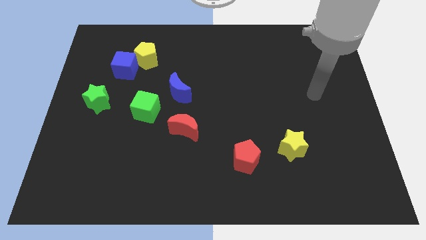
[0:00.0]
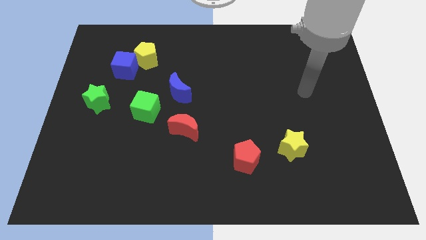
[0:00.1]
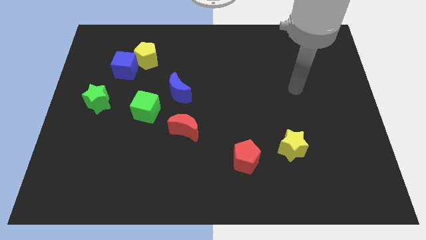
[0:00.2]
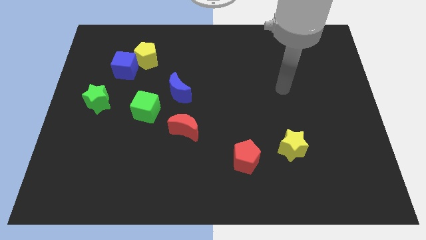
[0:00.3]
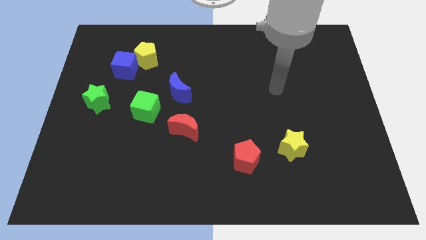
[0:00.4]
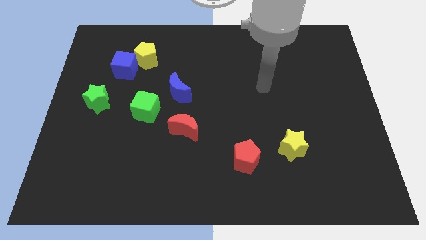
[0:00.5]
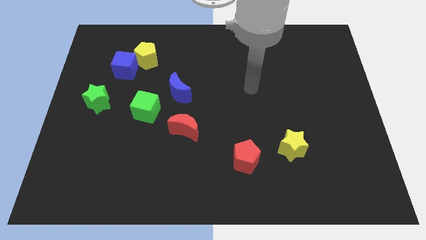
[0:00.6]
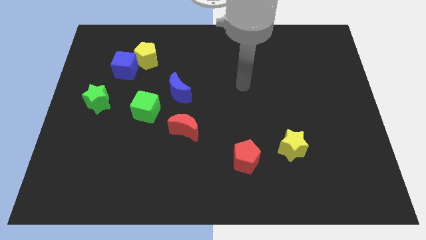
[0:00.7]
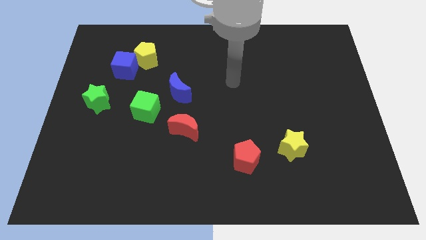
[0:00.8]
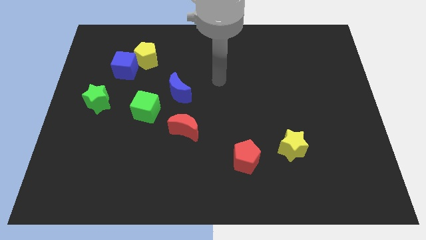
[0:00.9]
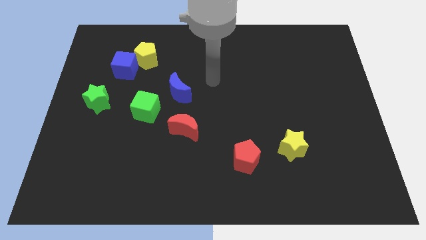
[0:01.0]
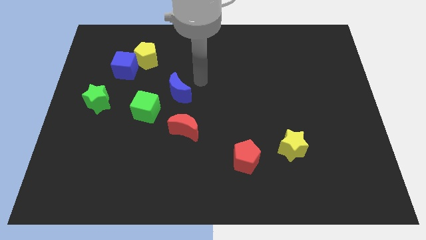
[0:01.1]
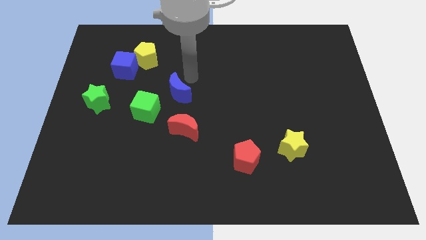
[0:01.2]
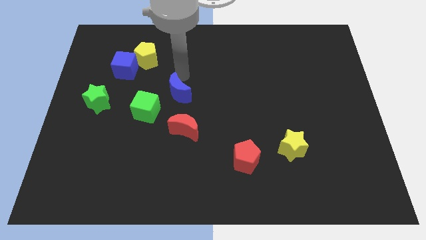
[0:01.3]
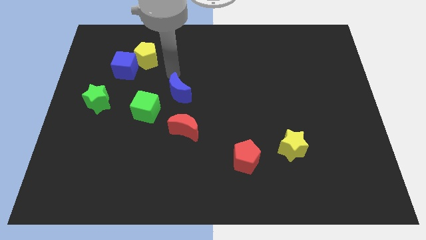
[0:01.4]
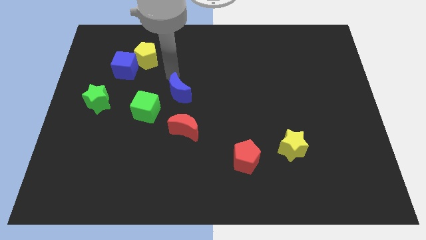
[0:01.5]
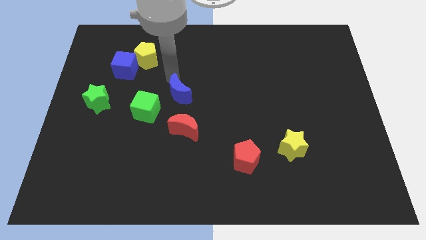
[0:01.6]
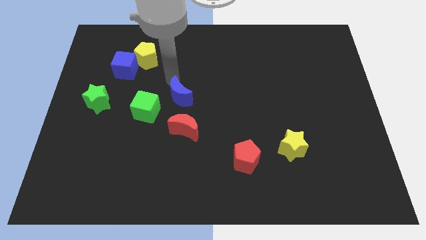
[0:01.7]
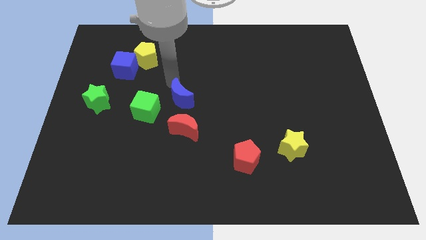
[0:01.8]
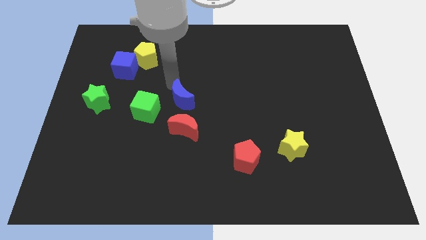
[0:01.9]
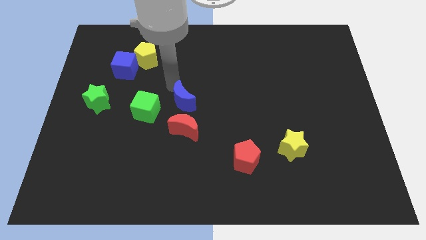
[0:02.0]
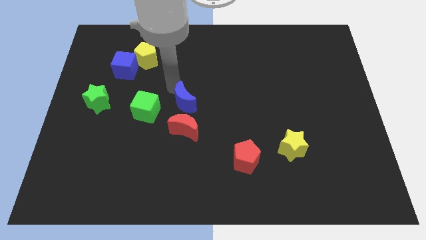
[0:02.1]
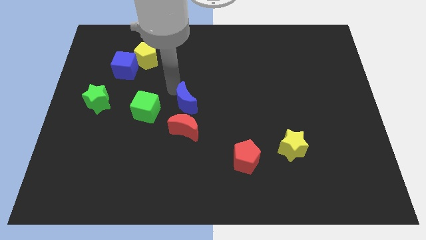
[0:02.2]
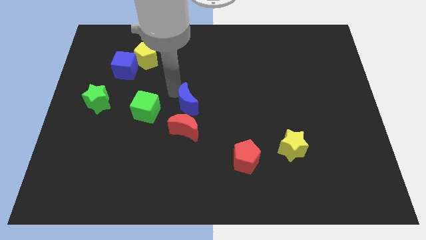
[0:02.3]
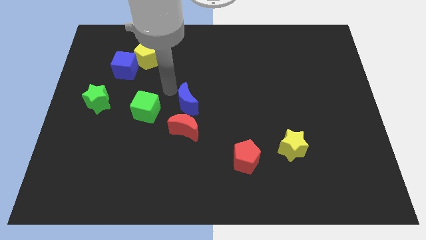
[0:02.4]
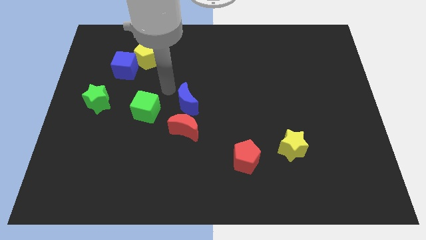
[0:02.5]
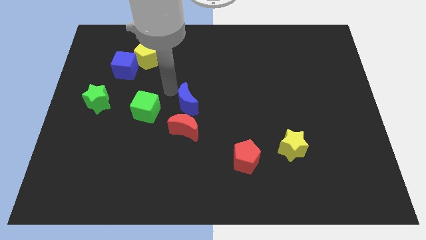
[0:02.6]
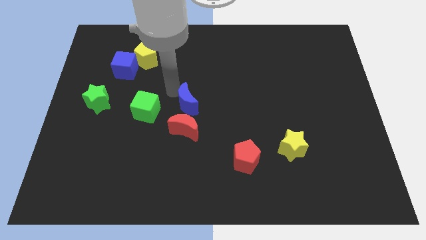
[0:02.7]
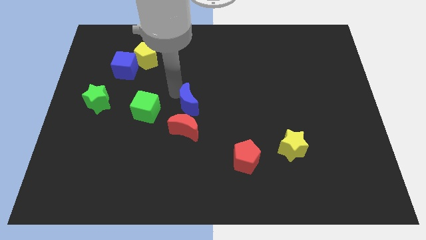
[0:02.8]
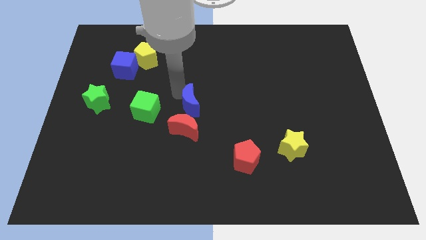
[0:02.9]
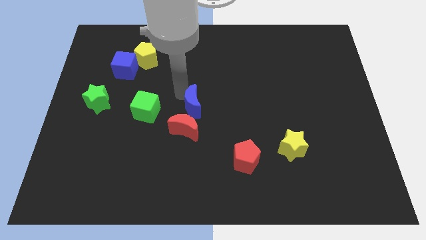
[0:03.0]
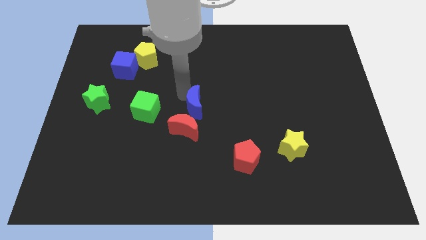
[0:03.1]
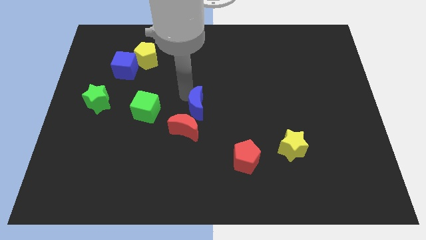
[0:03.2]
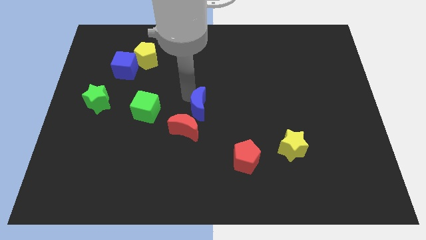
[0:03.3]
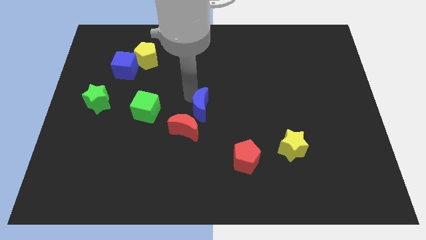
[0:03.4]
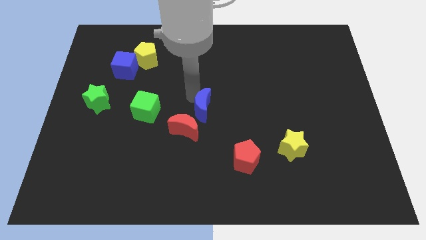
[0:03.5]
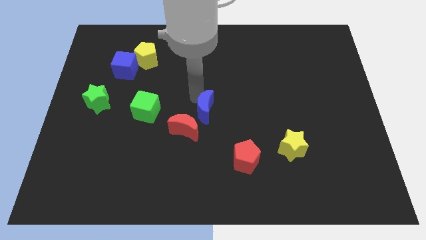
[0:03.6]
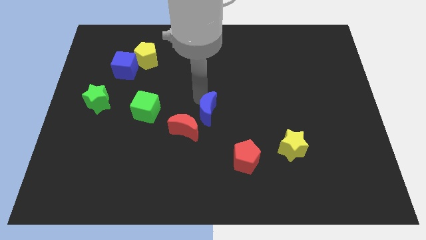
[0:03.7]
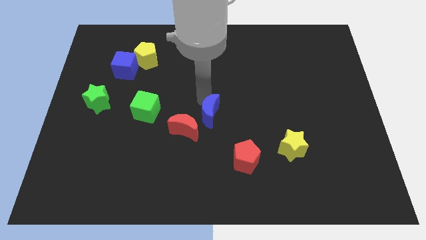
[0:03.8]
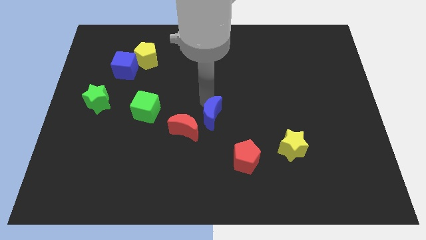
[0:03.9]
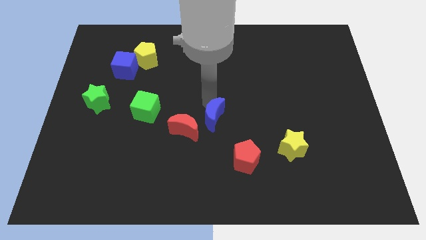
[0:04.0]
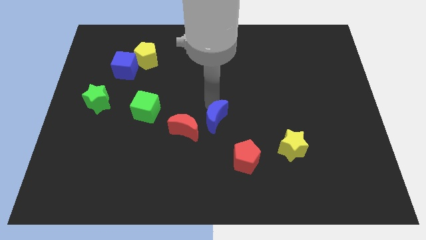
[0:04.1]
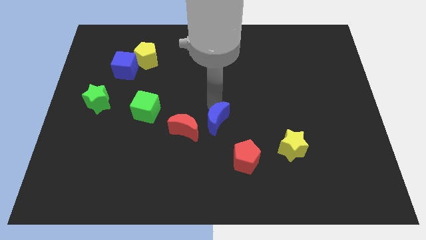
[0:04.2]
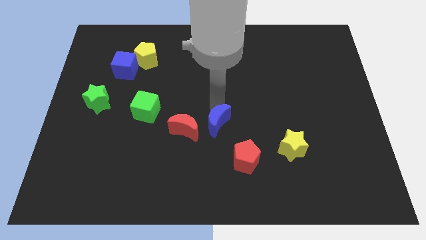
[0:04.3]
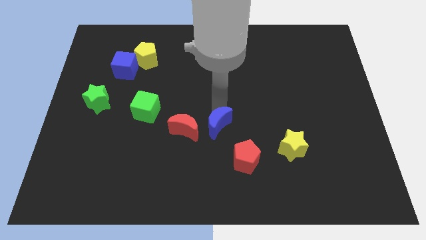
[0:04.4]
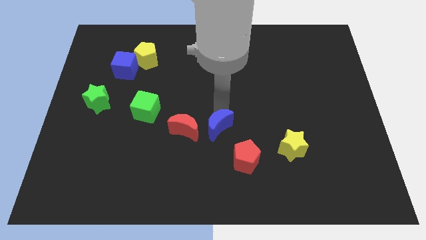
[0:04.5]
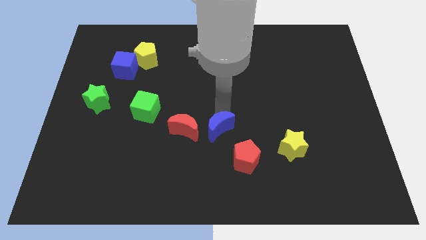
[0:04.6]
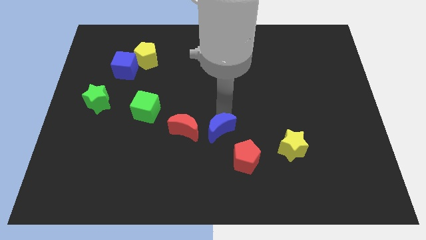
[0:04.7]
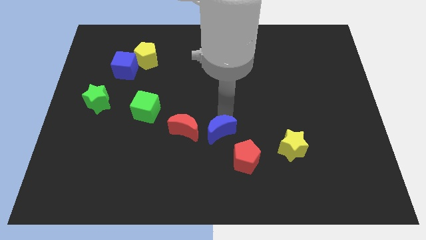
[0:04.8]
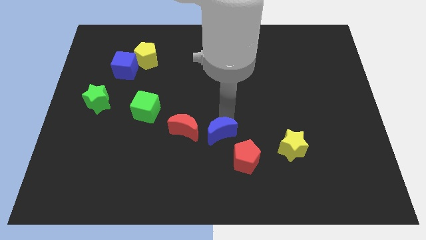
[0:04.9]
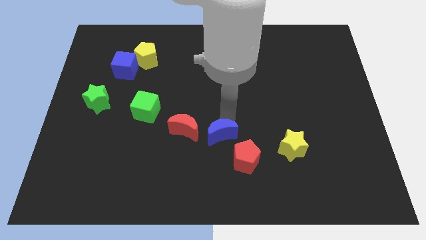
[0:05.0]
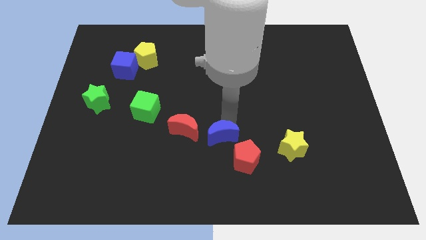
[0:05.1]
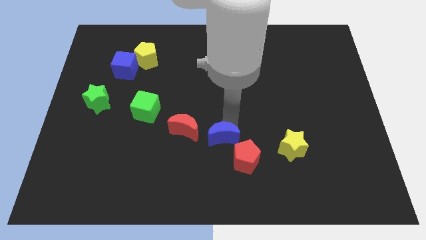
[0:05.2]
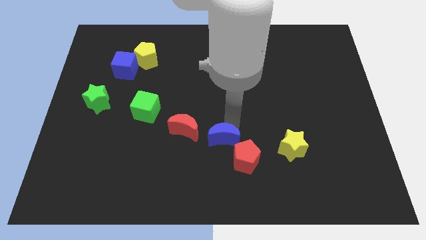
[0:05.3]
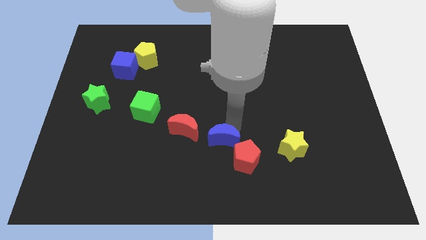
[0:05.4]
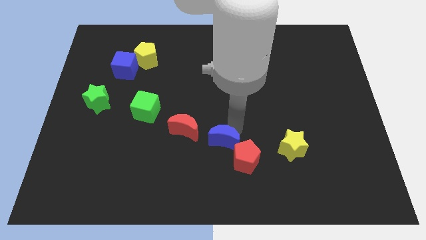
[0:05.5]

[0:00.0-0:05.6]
slide the blue moon to the left side of the red pentagon

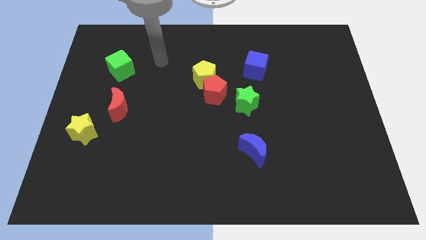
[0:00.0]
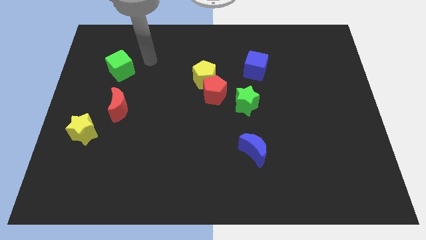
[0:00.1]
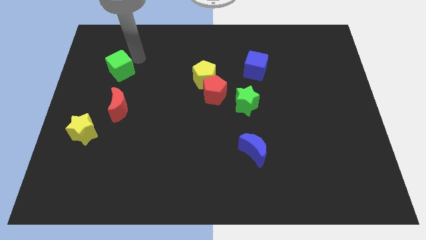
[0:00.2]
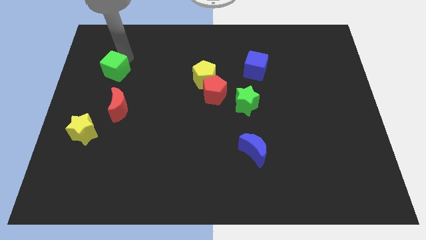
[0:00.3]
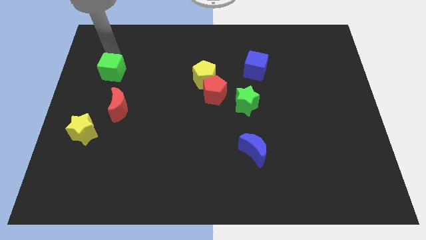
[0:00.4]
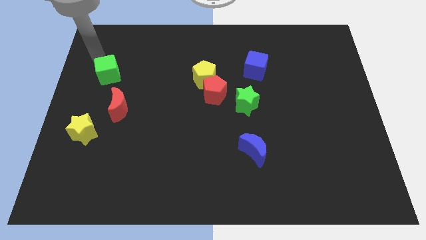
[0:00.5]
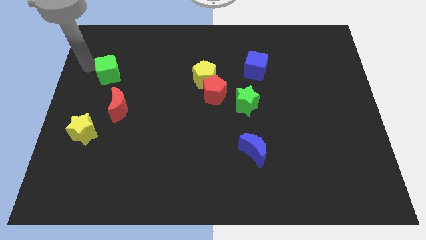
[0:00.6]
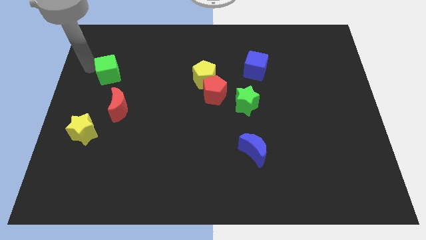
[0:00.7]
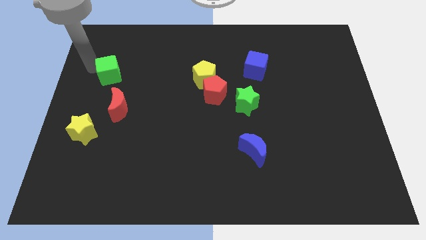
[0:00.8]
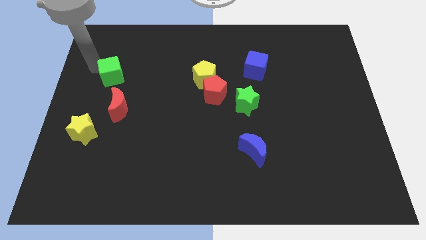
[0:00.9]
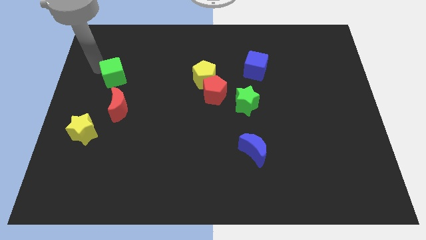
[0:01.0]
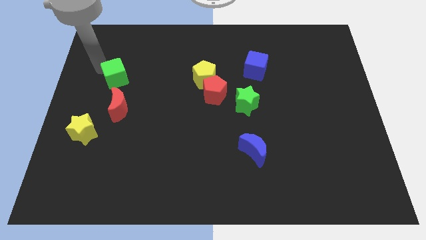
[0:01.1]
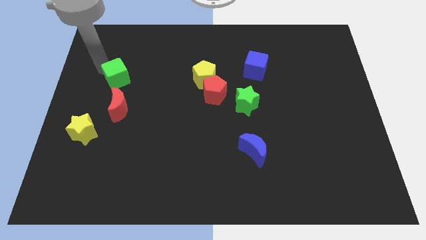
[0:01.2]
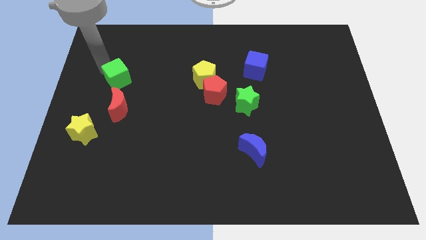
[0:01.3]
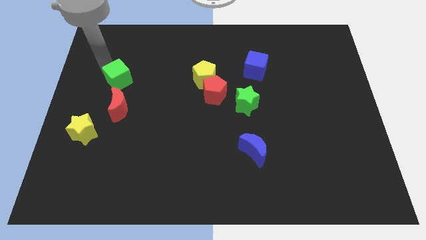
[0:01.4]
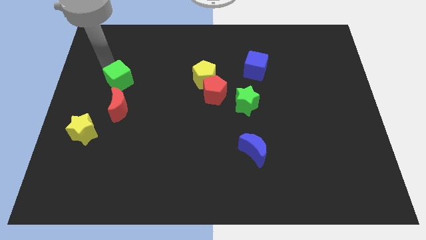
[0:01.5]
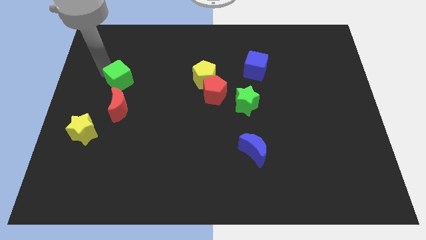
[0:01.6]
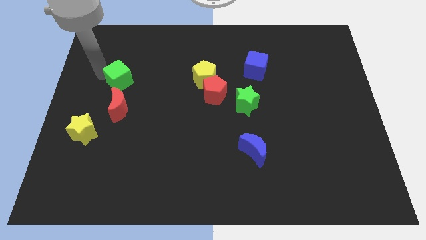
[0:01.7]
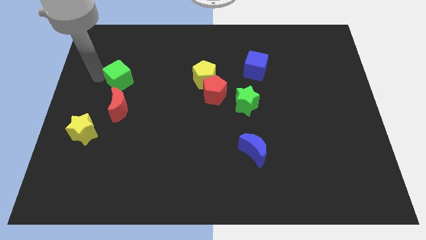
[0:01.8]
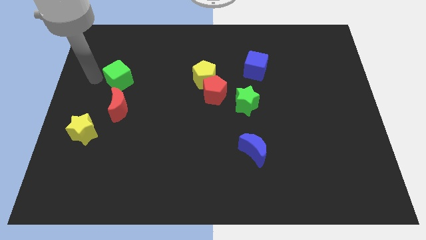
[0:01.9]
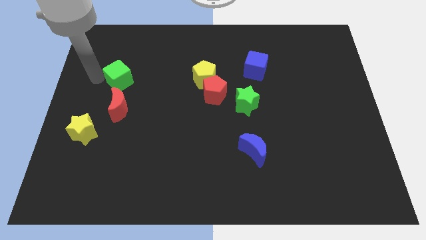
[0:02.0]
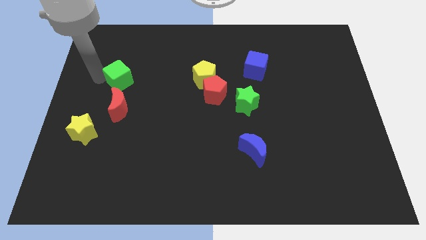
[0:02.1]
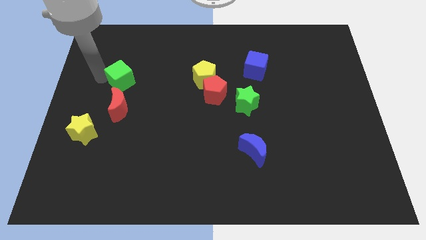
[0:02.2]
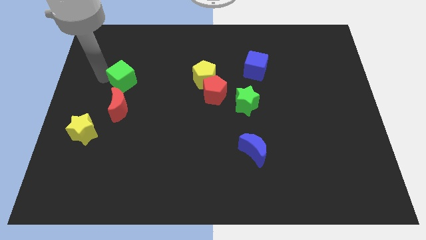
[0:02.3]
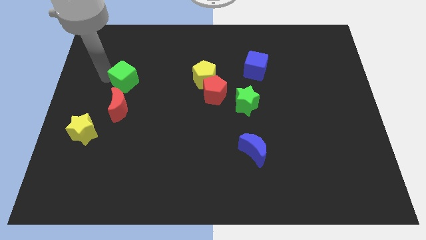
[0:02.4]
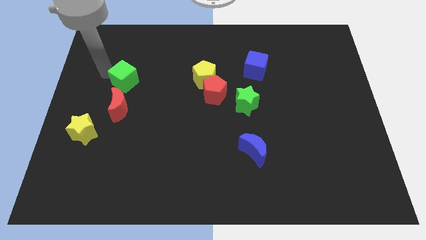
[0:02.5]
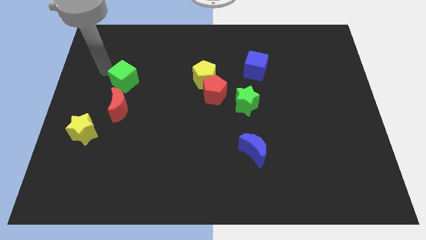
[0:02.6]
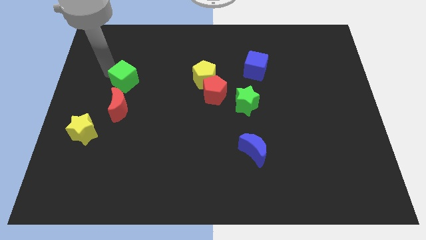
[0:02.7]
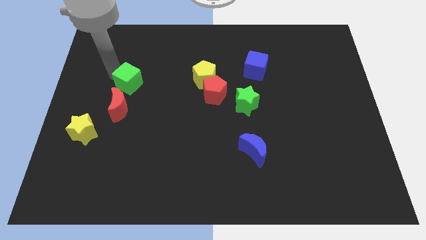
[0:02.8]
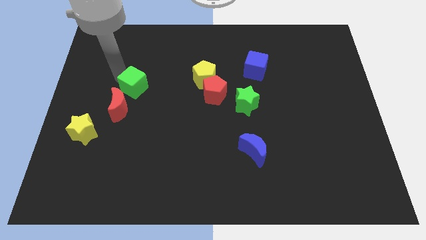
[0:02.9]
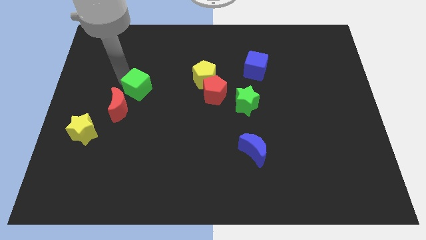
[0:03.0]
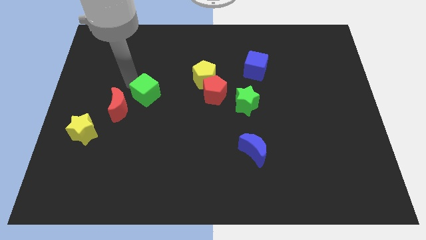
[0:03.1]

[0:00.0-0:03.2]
move the green cube just right of the red moon
